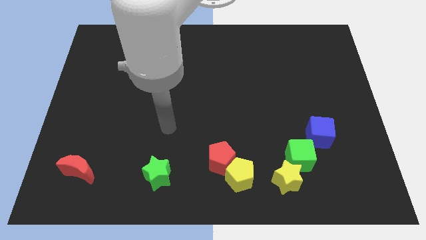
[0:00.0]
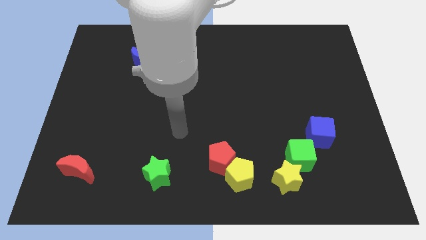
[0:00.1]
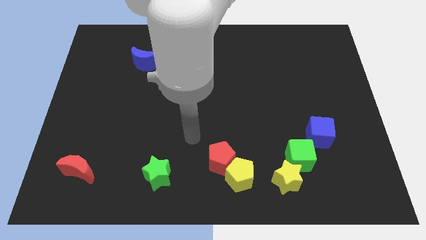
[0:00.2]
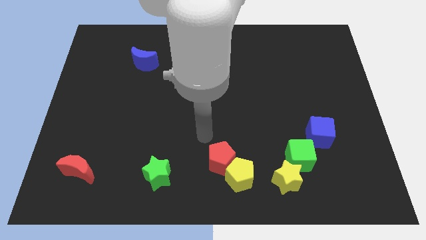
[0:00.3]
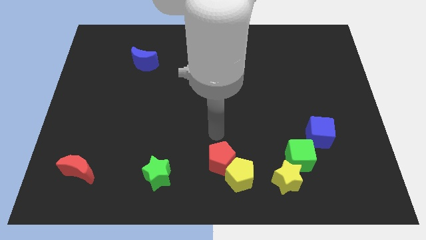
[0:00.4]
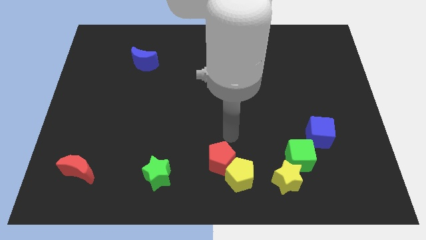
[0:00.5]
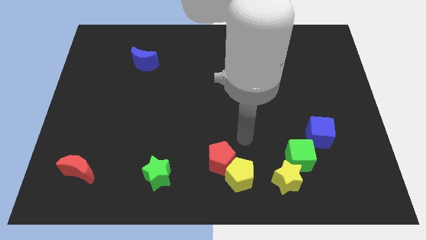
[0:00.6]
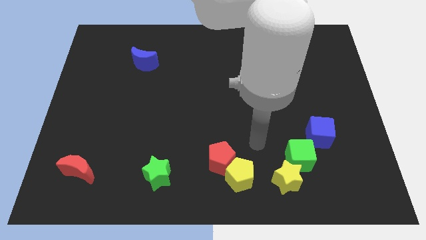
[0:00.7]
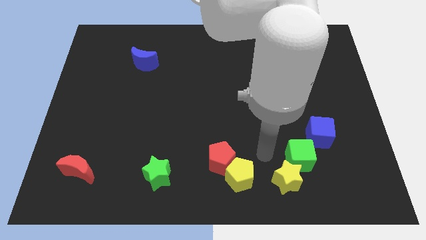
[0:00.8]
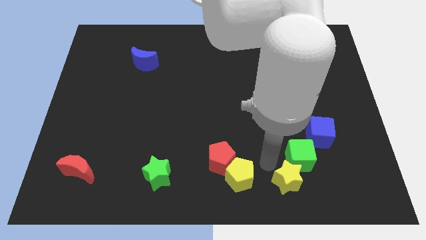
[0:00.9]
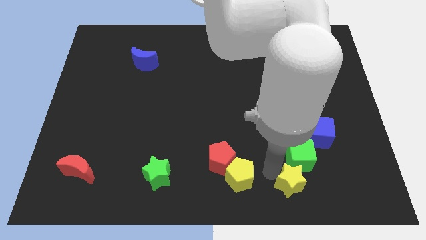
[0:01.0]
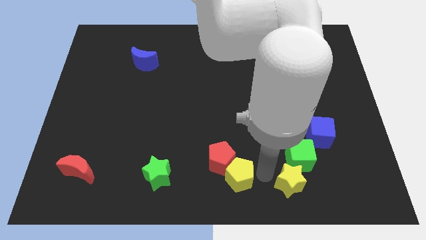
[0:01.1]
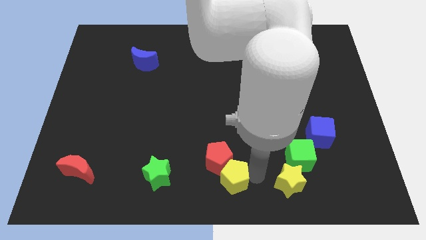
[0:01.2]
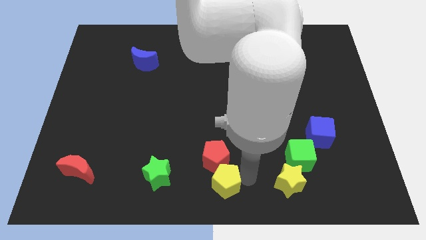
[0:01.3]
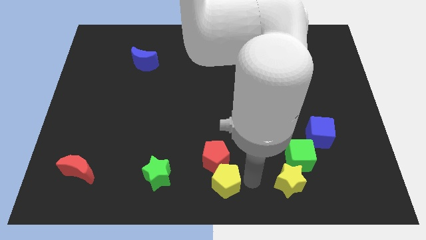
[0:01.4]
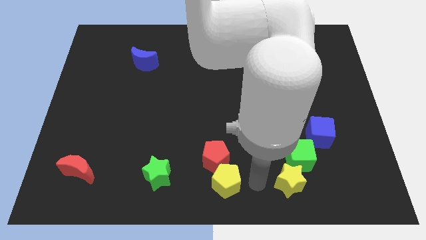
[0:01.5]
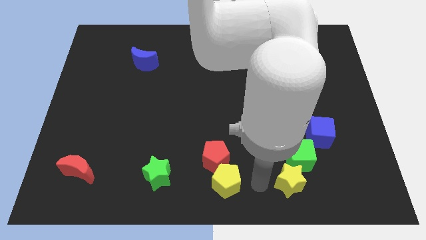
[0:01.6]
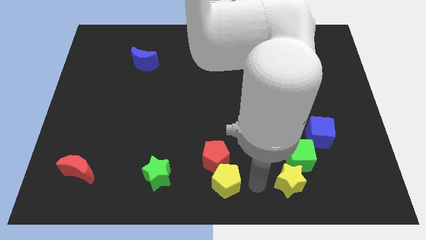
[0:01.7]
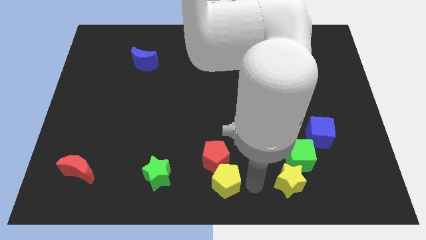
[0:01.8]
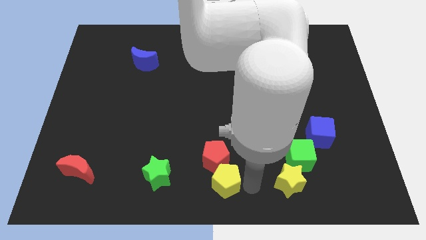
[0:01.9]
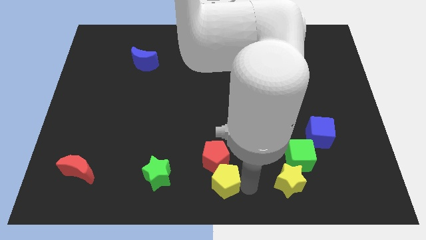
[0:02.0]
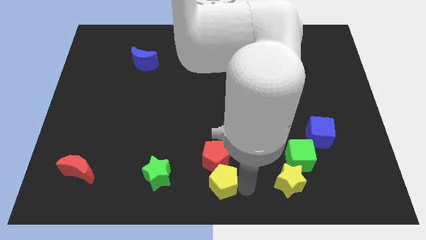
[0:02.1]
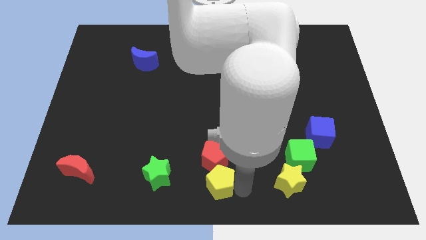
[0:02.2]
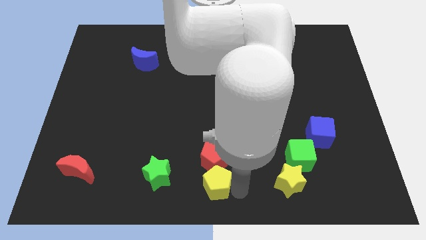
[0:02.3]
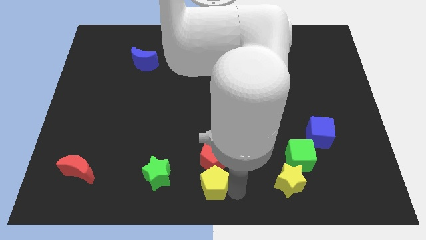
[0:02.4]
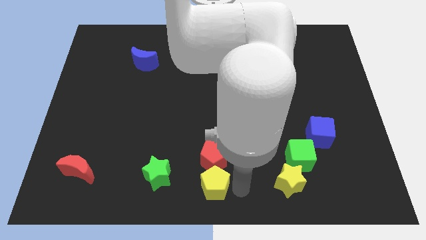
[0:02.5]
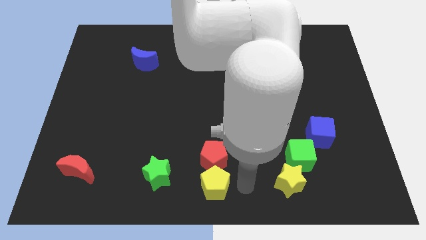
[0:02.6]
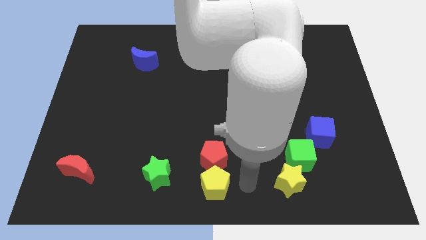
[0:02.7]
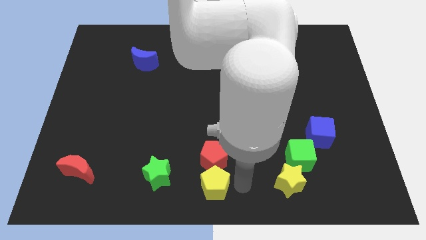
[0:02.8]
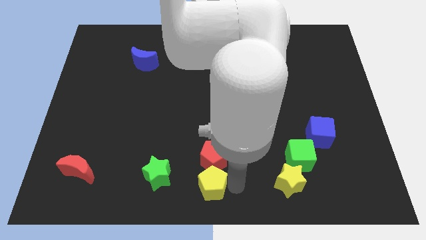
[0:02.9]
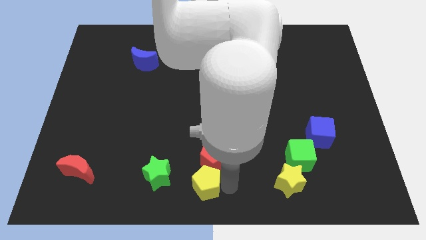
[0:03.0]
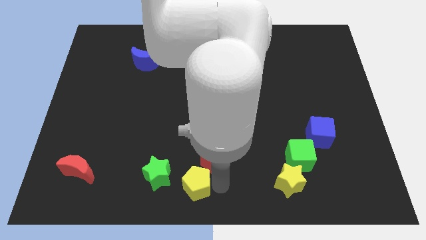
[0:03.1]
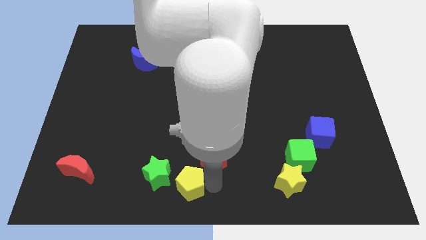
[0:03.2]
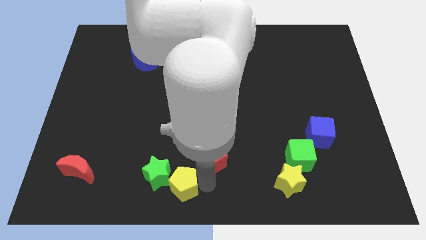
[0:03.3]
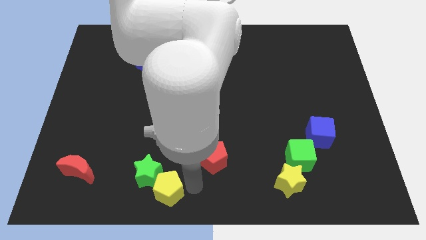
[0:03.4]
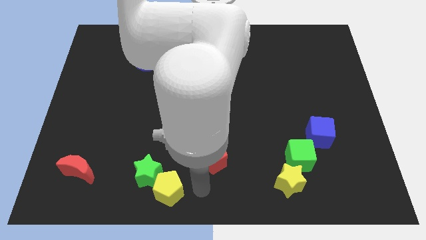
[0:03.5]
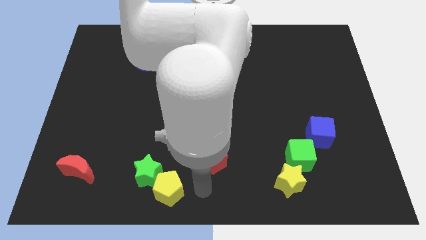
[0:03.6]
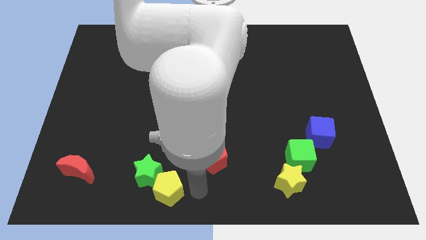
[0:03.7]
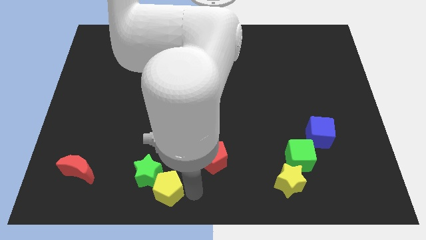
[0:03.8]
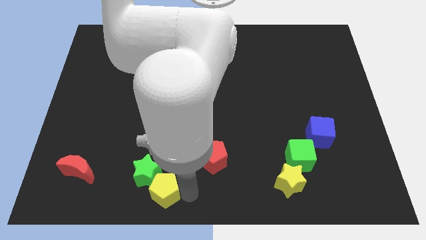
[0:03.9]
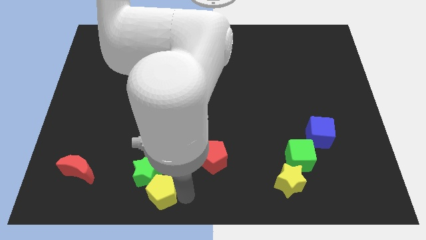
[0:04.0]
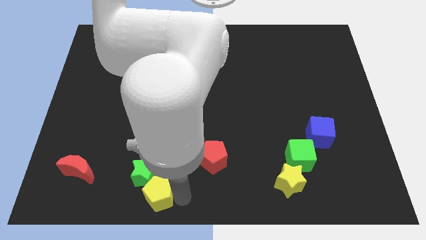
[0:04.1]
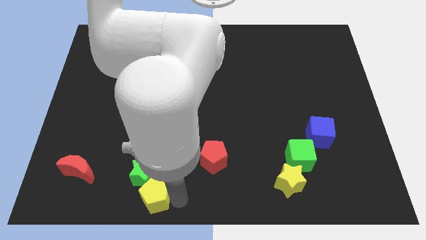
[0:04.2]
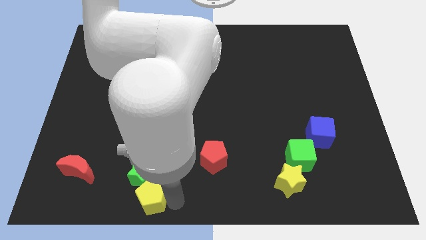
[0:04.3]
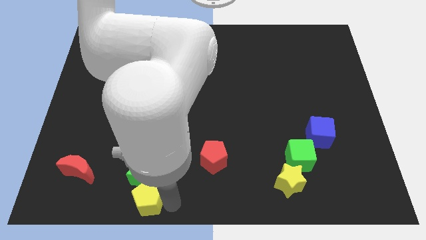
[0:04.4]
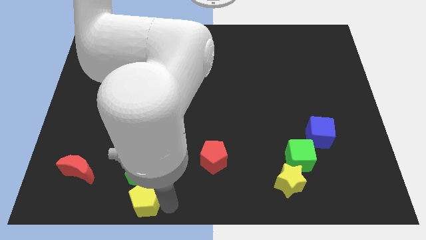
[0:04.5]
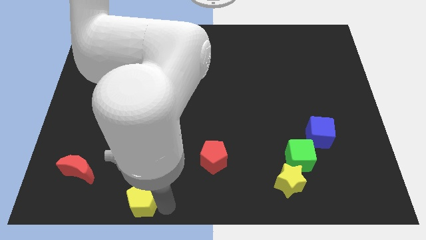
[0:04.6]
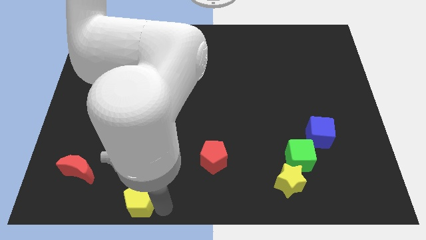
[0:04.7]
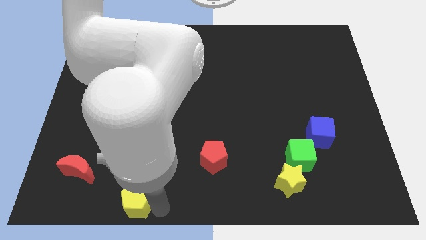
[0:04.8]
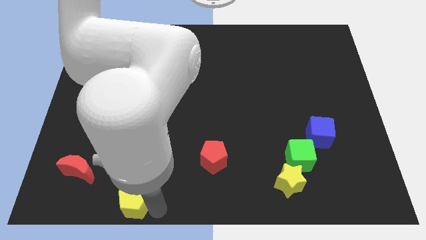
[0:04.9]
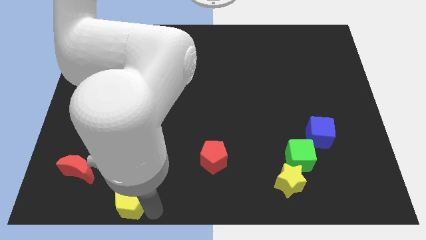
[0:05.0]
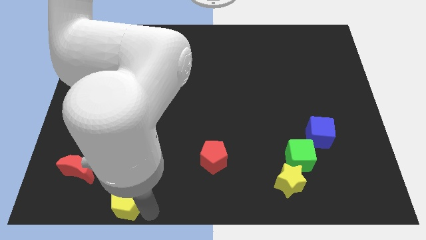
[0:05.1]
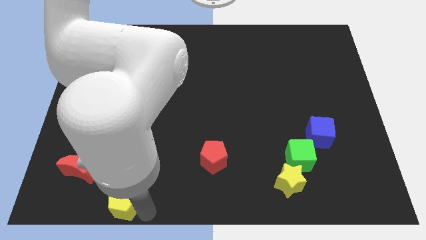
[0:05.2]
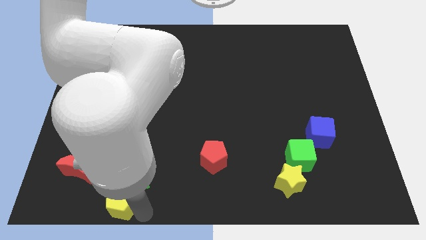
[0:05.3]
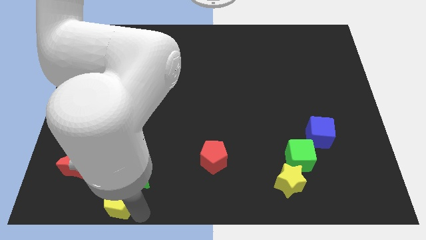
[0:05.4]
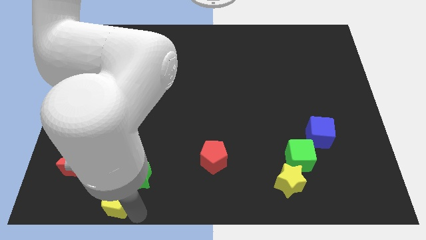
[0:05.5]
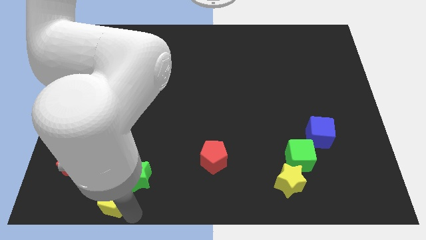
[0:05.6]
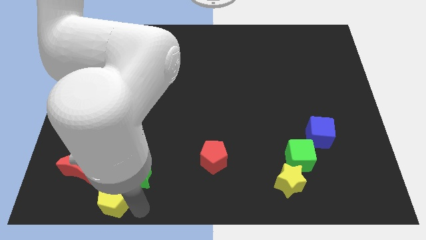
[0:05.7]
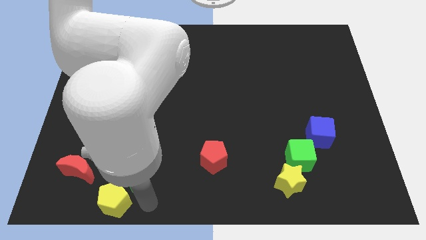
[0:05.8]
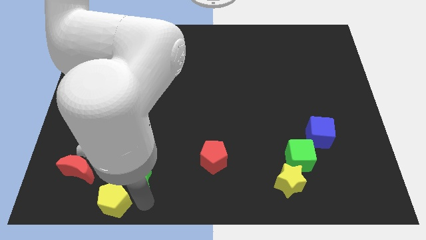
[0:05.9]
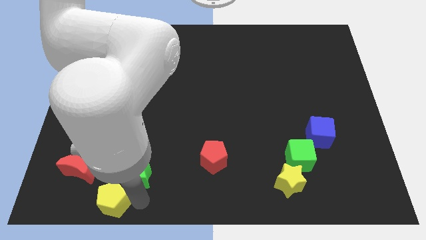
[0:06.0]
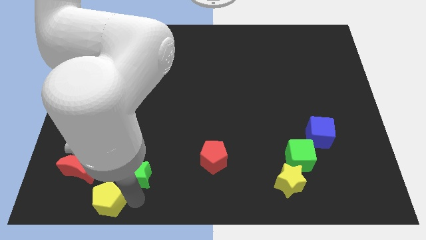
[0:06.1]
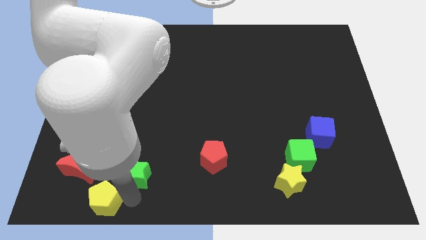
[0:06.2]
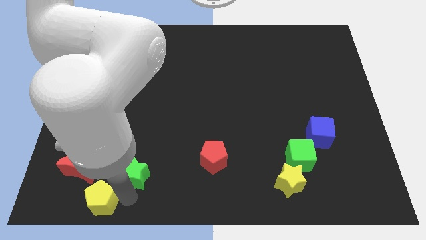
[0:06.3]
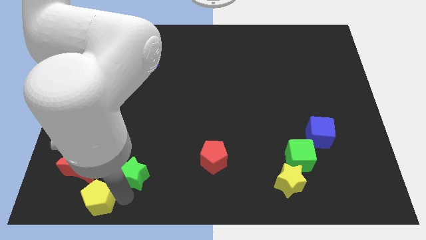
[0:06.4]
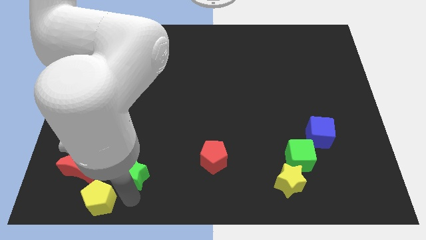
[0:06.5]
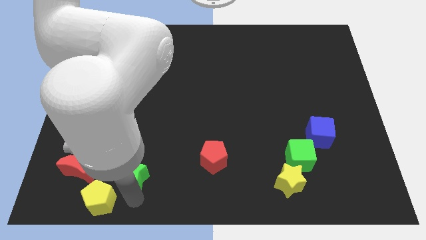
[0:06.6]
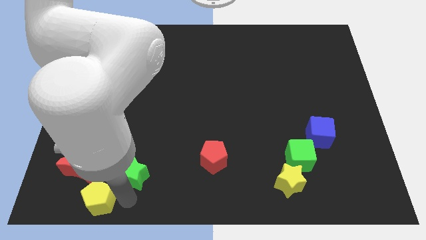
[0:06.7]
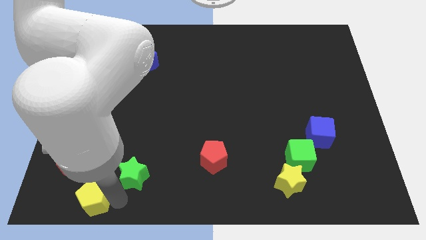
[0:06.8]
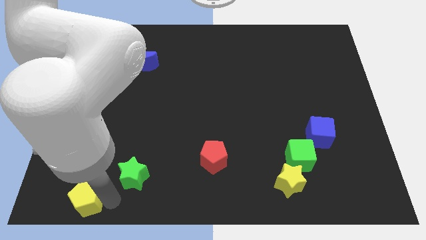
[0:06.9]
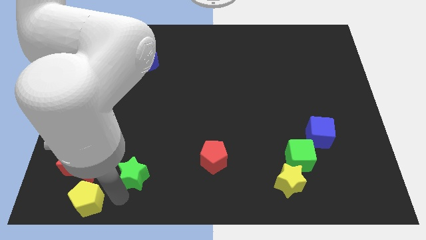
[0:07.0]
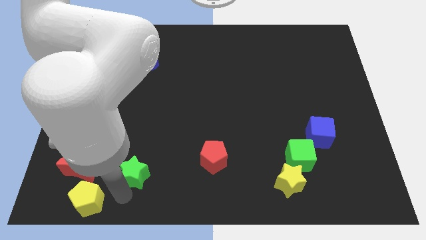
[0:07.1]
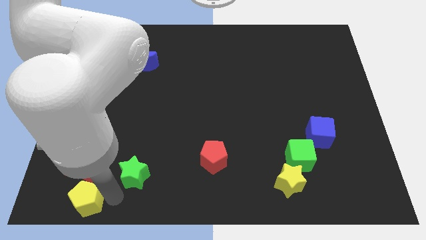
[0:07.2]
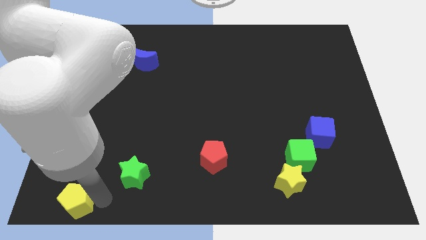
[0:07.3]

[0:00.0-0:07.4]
push the yellow pentagon to the lower left corner
